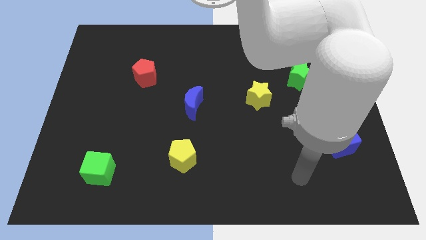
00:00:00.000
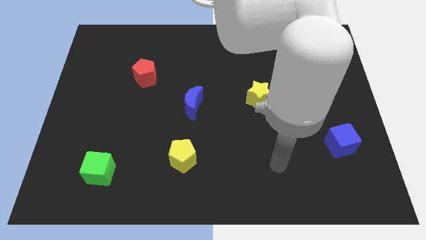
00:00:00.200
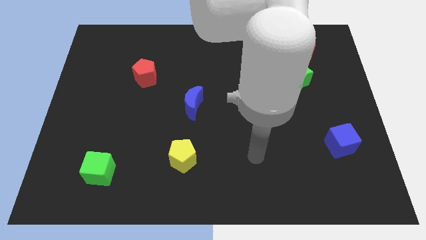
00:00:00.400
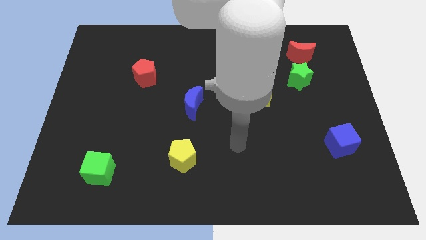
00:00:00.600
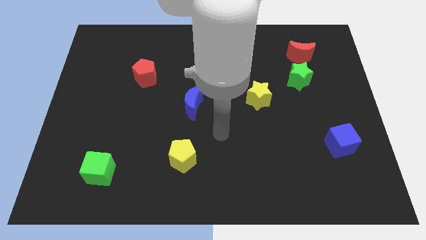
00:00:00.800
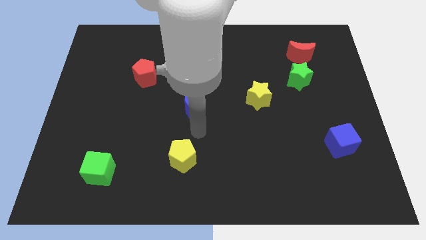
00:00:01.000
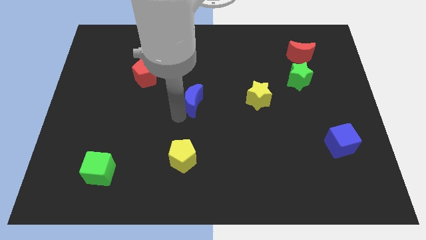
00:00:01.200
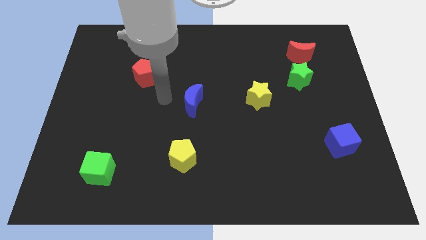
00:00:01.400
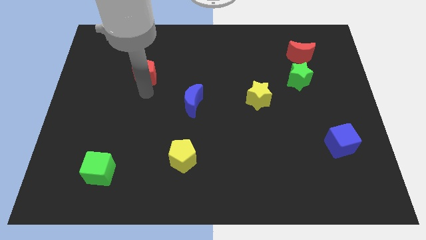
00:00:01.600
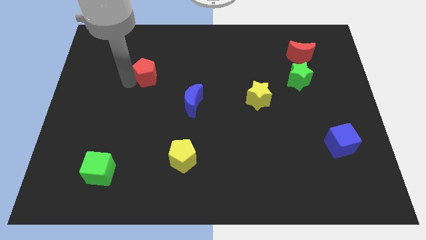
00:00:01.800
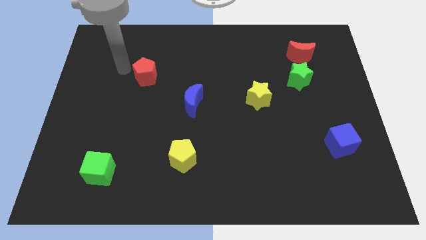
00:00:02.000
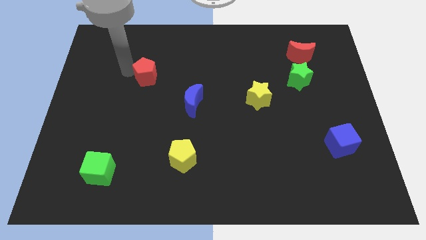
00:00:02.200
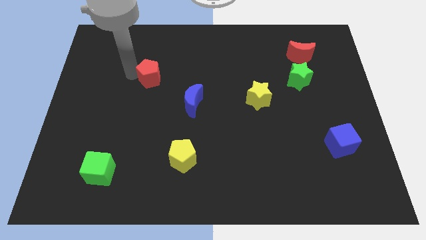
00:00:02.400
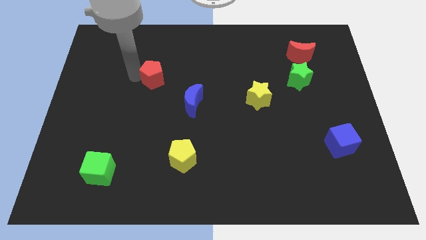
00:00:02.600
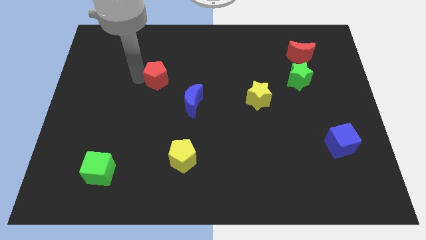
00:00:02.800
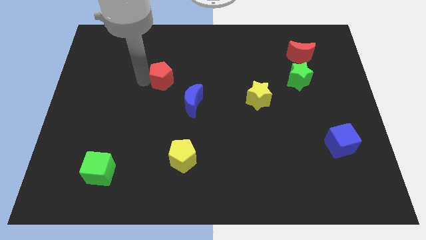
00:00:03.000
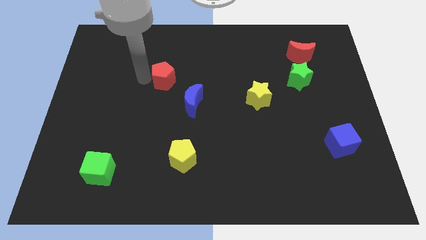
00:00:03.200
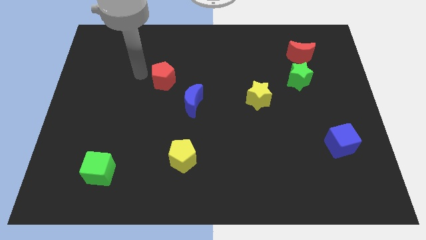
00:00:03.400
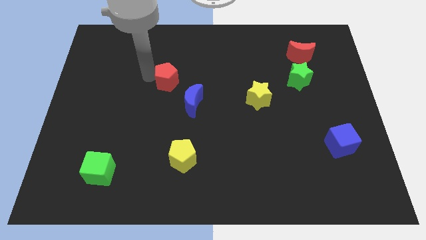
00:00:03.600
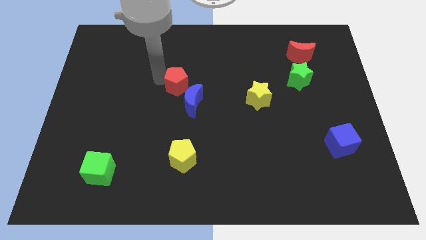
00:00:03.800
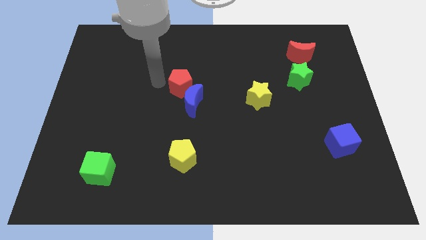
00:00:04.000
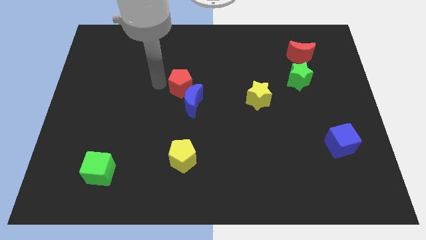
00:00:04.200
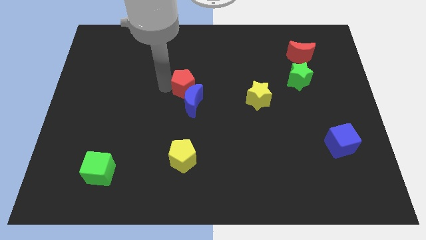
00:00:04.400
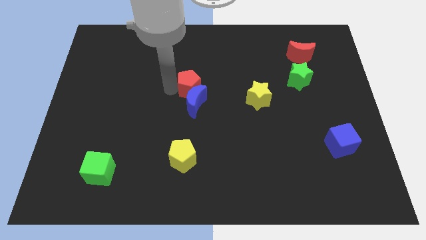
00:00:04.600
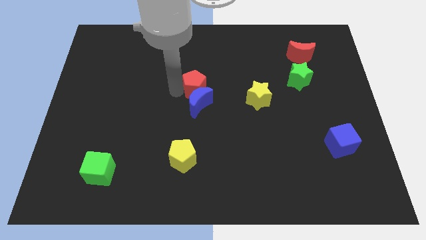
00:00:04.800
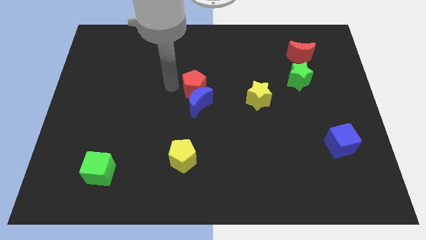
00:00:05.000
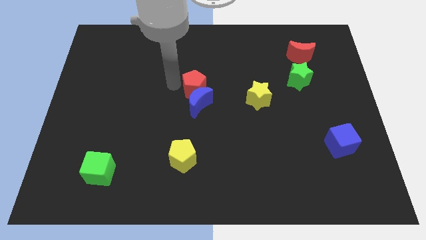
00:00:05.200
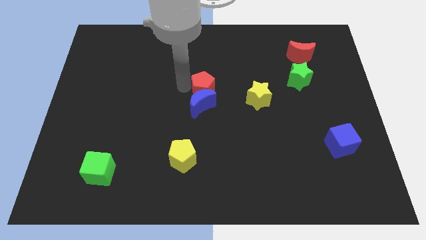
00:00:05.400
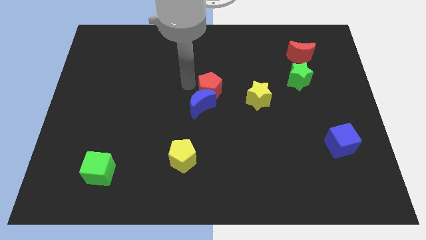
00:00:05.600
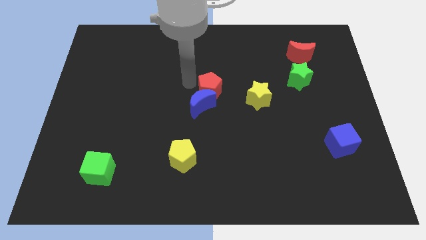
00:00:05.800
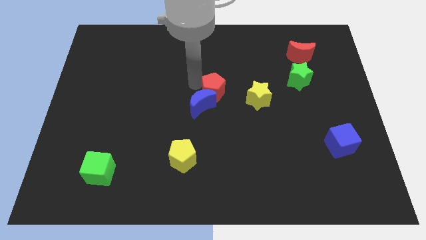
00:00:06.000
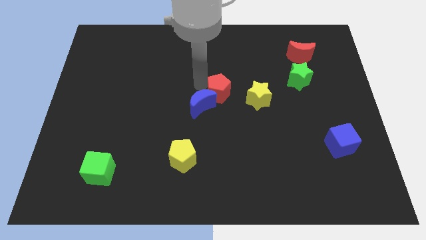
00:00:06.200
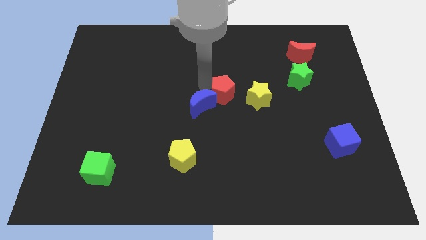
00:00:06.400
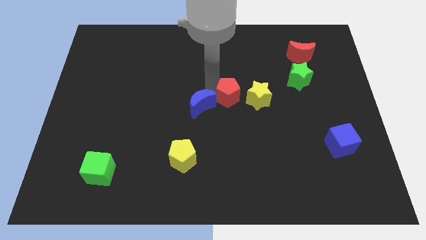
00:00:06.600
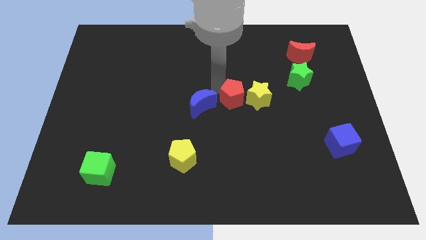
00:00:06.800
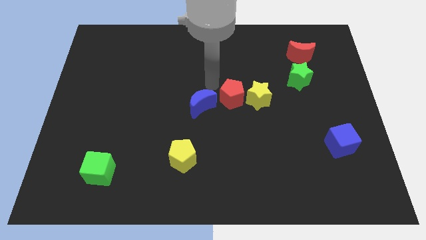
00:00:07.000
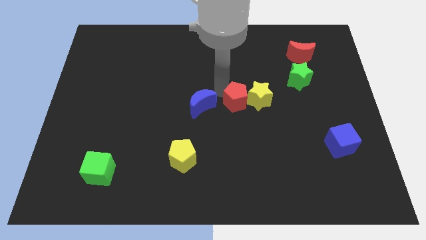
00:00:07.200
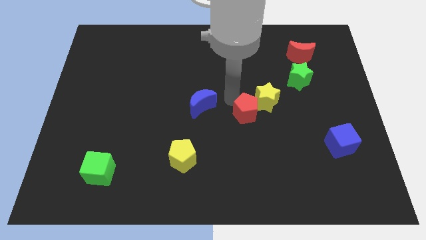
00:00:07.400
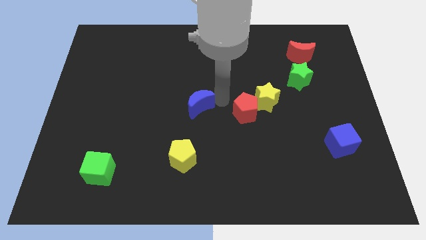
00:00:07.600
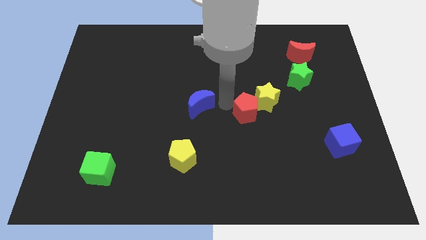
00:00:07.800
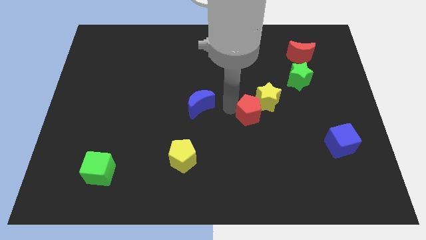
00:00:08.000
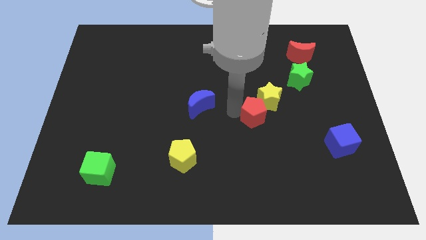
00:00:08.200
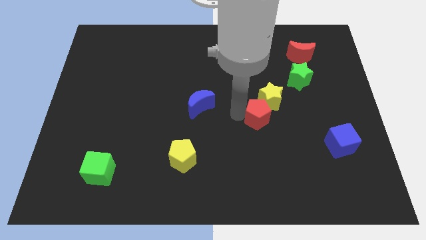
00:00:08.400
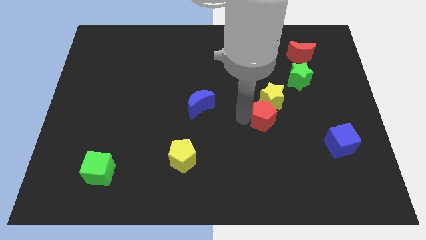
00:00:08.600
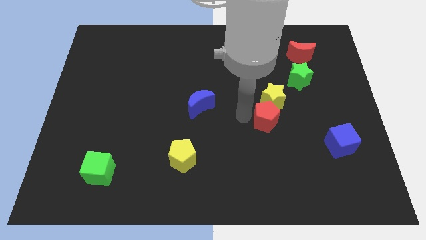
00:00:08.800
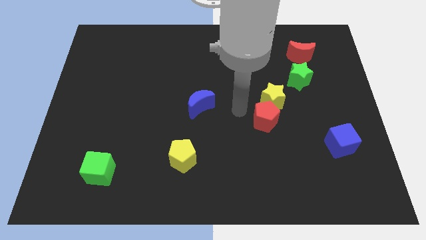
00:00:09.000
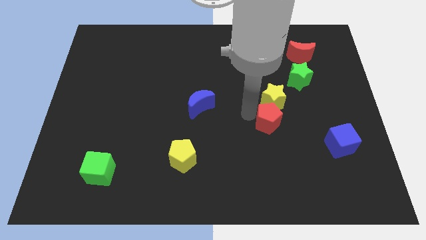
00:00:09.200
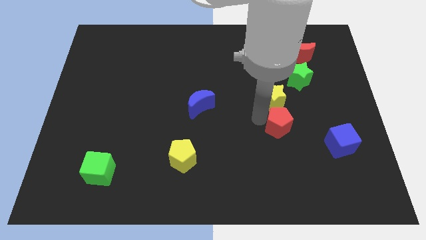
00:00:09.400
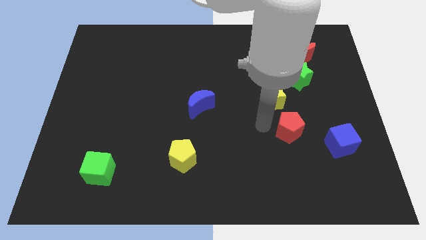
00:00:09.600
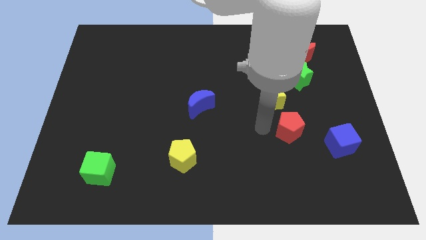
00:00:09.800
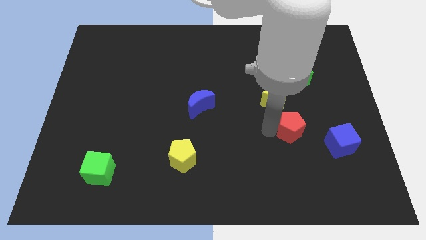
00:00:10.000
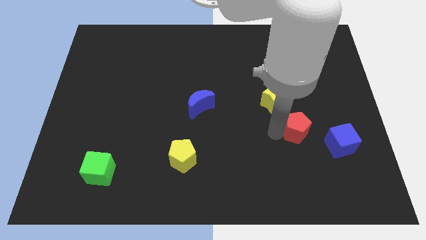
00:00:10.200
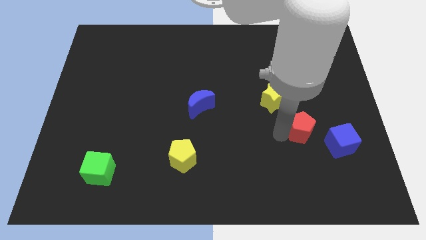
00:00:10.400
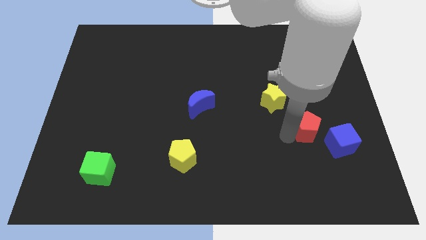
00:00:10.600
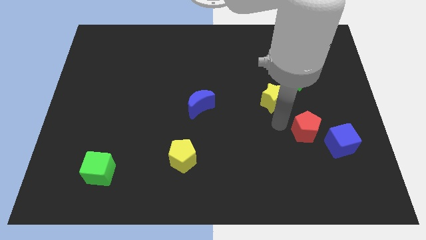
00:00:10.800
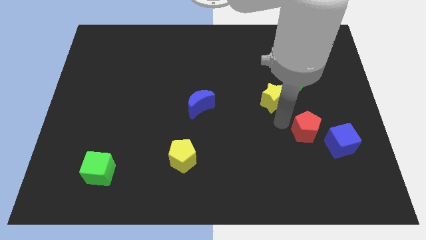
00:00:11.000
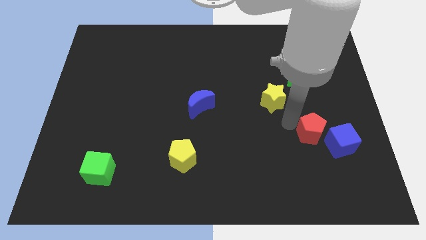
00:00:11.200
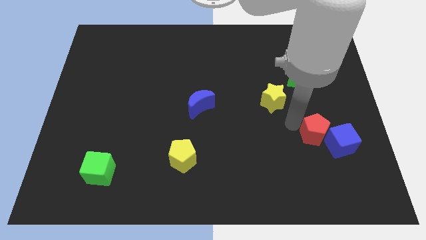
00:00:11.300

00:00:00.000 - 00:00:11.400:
put the red pentagon next to the blue cube

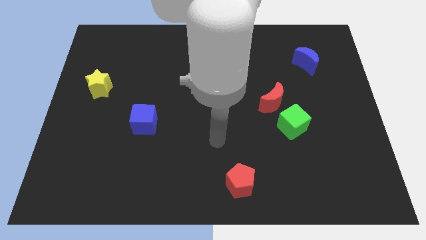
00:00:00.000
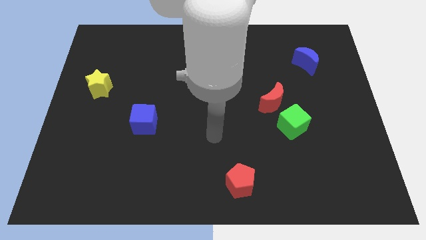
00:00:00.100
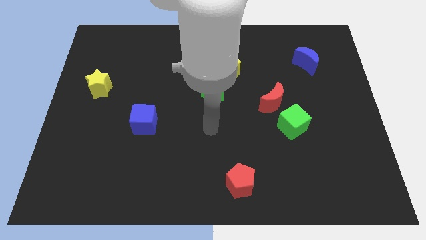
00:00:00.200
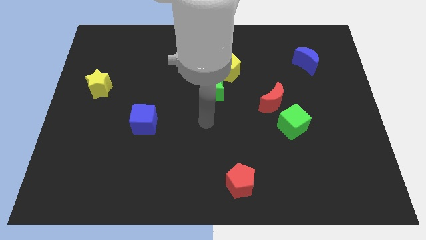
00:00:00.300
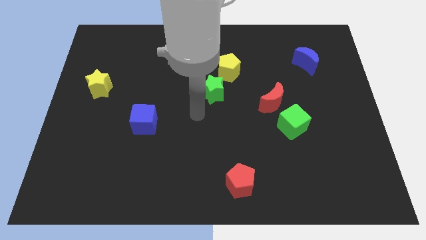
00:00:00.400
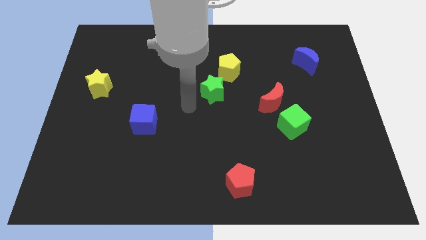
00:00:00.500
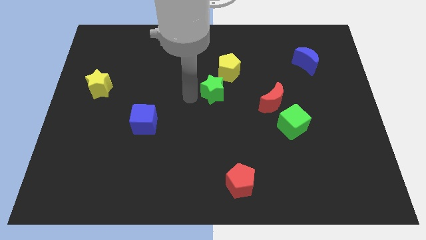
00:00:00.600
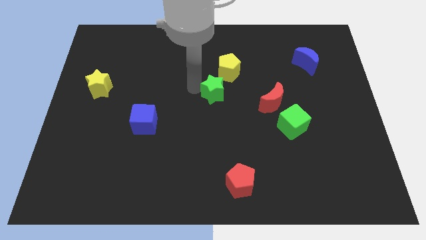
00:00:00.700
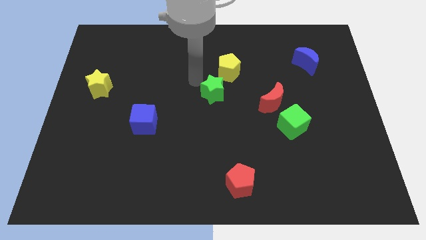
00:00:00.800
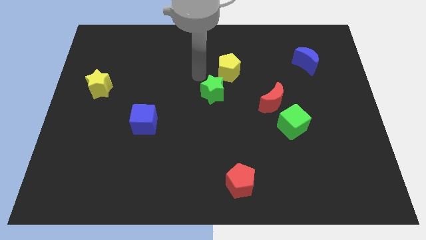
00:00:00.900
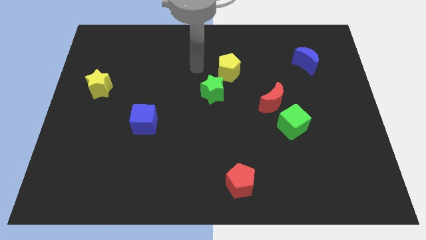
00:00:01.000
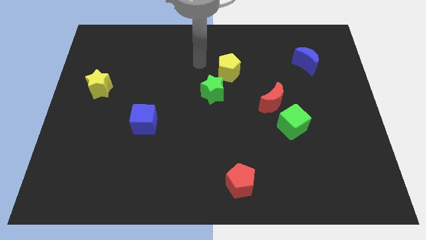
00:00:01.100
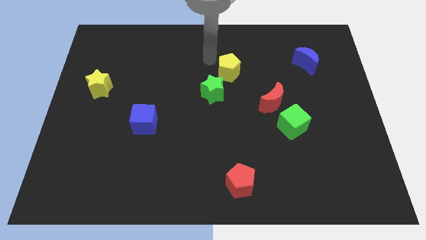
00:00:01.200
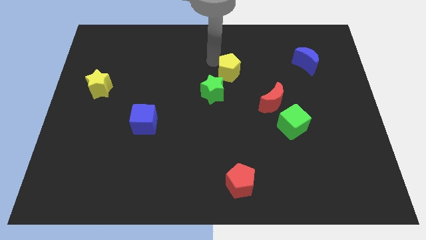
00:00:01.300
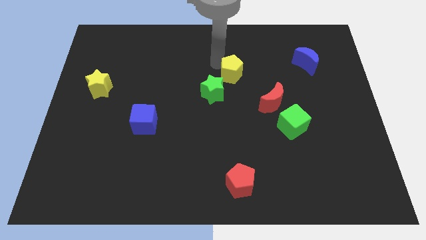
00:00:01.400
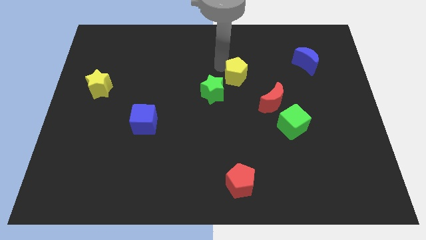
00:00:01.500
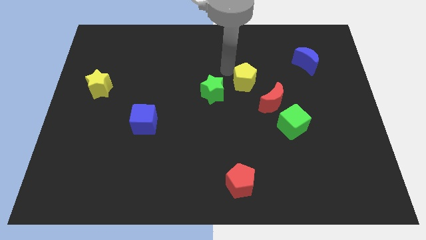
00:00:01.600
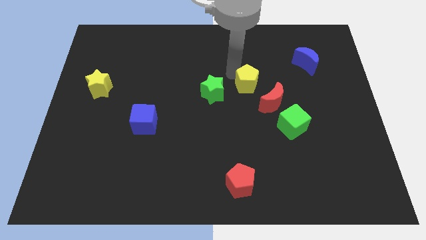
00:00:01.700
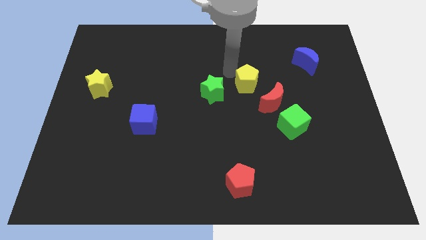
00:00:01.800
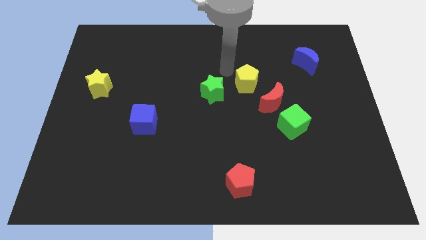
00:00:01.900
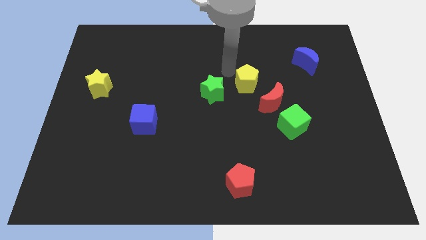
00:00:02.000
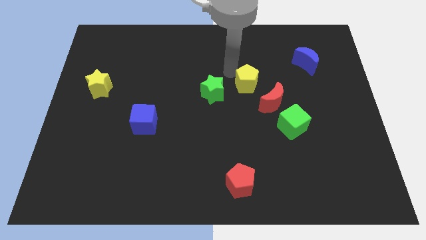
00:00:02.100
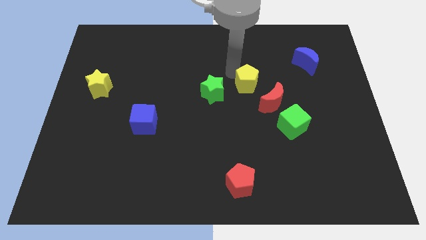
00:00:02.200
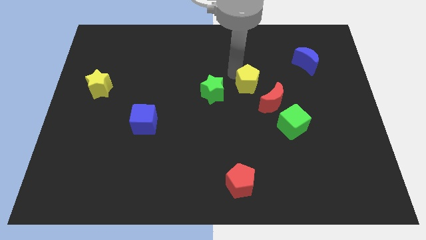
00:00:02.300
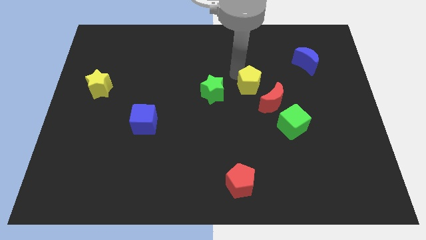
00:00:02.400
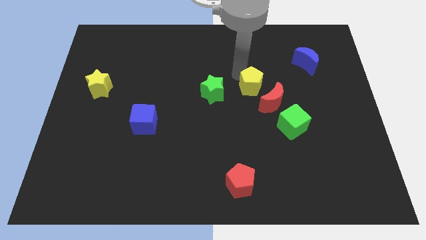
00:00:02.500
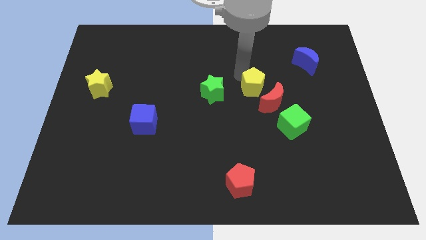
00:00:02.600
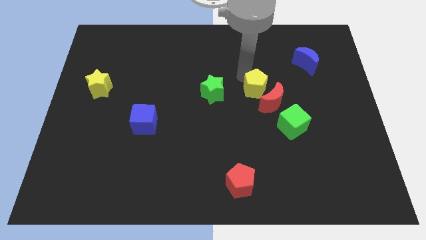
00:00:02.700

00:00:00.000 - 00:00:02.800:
slide the yellow pentagon next to the red moon
